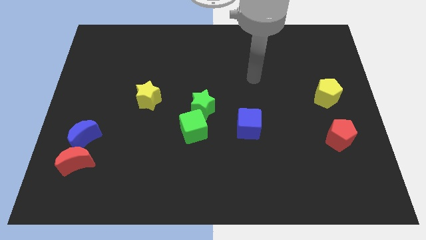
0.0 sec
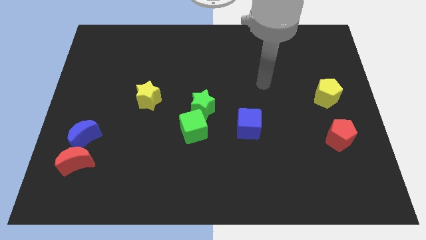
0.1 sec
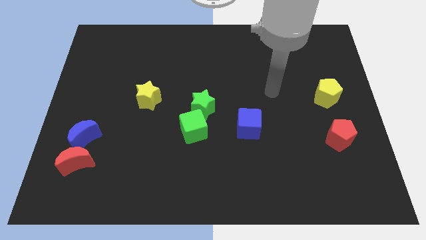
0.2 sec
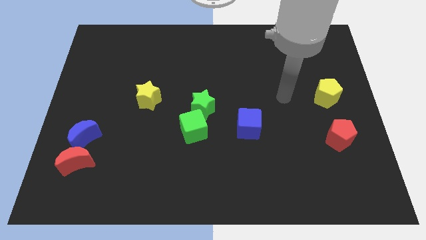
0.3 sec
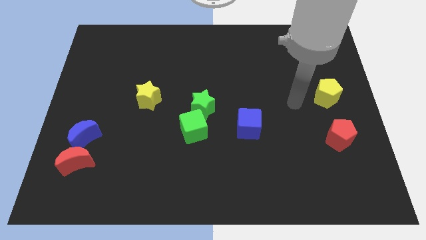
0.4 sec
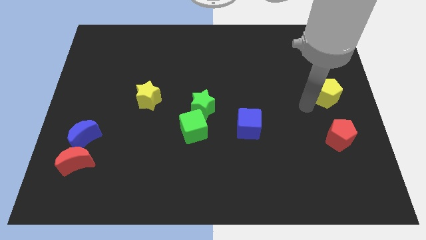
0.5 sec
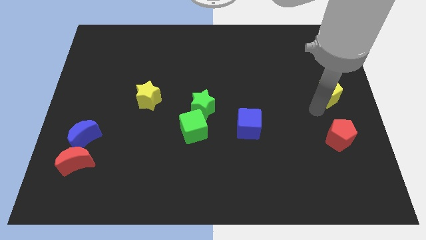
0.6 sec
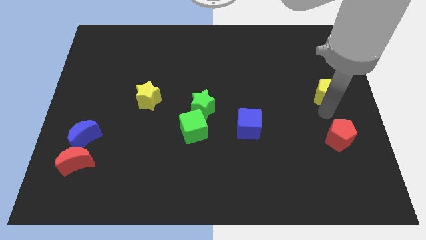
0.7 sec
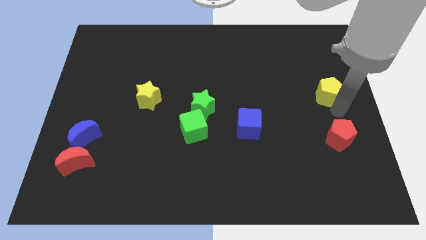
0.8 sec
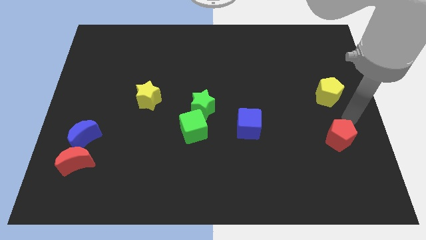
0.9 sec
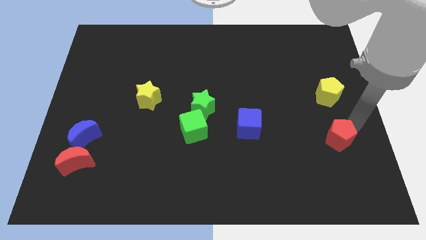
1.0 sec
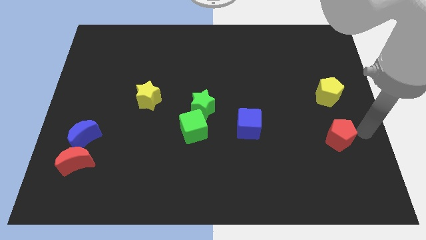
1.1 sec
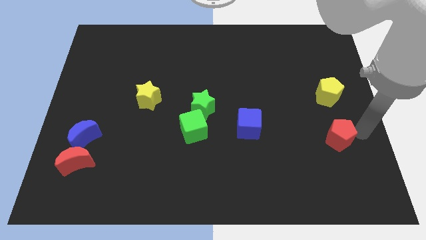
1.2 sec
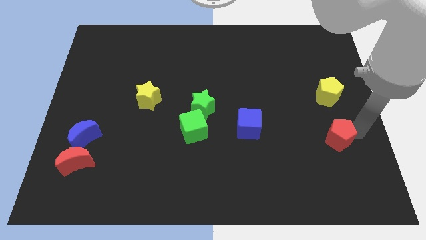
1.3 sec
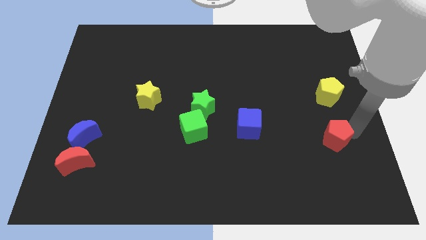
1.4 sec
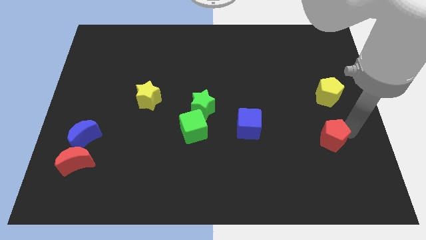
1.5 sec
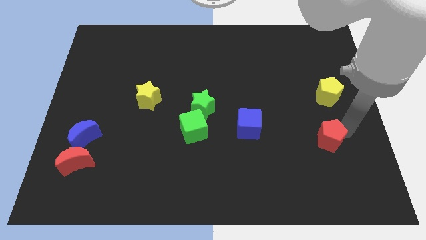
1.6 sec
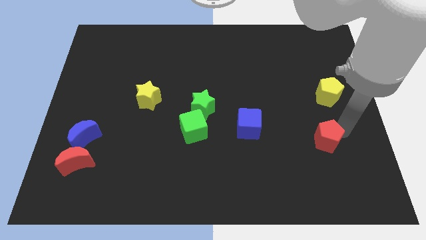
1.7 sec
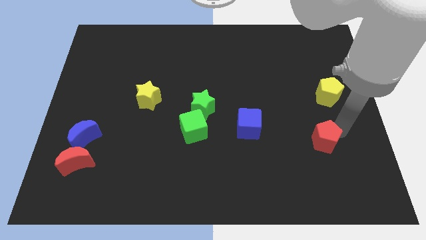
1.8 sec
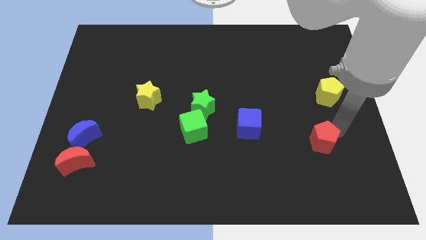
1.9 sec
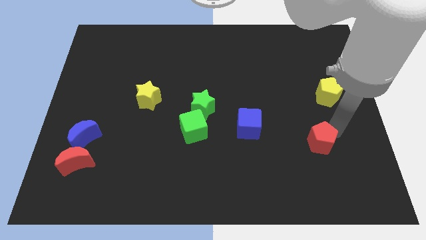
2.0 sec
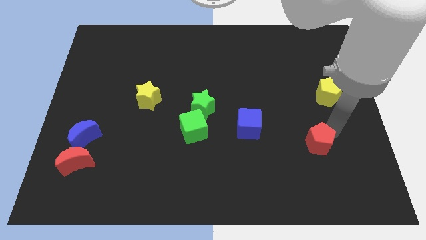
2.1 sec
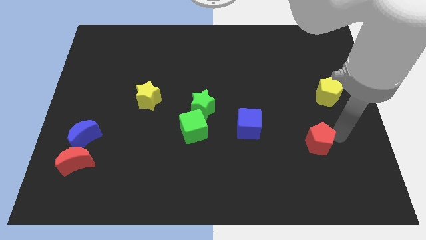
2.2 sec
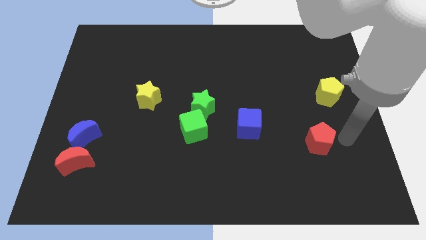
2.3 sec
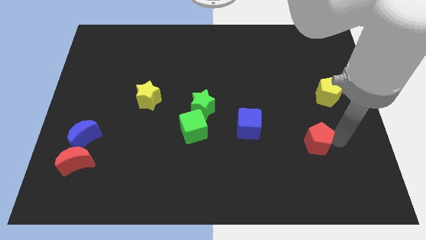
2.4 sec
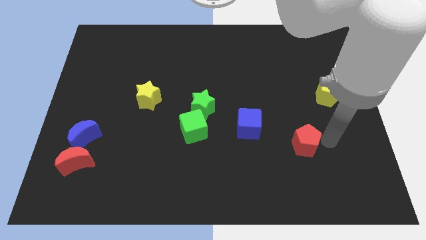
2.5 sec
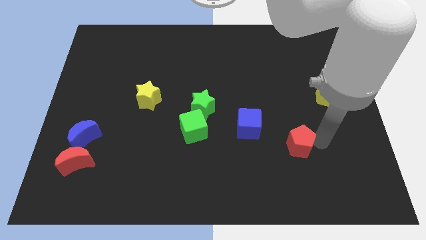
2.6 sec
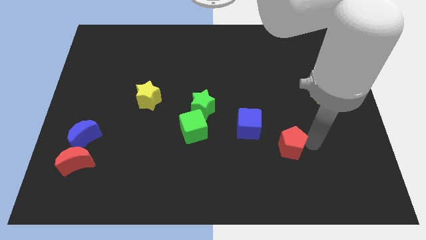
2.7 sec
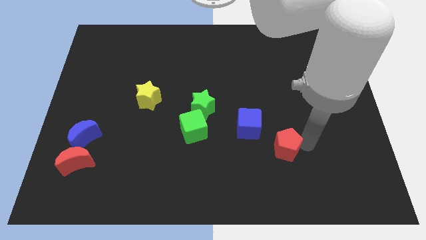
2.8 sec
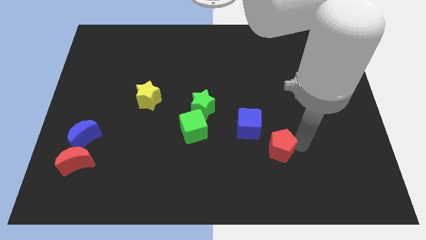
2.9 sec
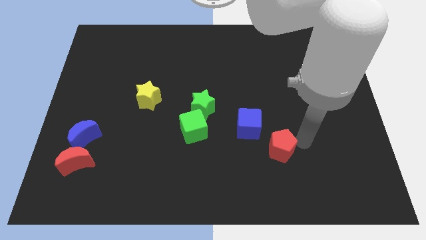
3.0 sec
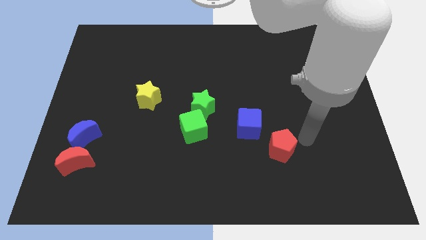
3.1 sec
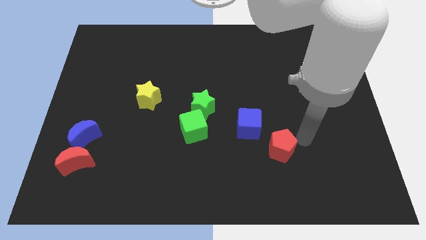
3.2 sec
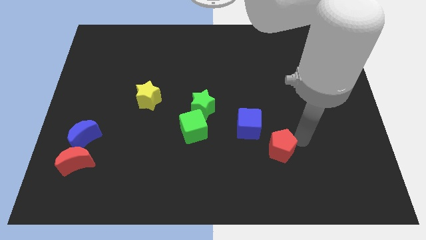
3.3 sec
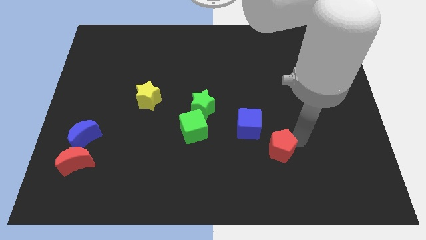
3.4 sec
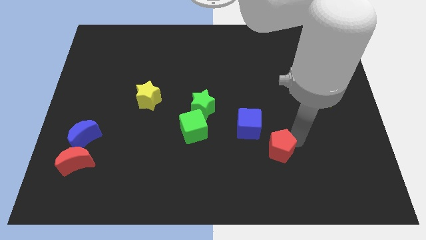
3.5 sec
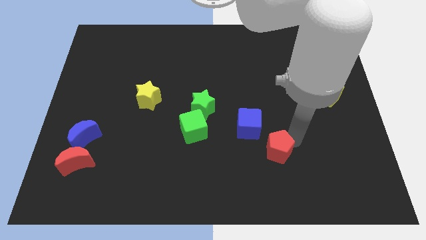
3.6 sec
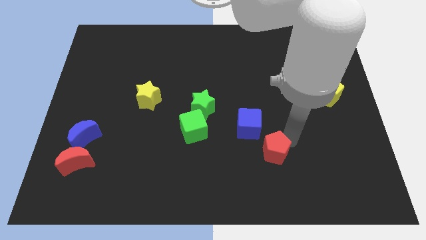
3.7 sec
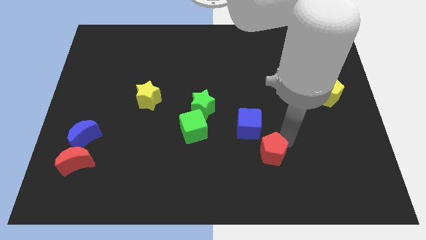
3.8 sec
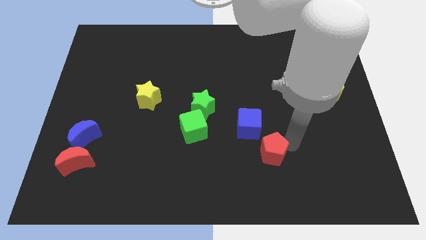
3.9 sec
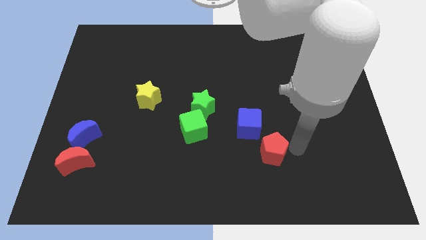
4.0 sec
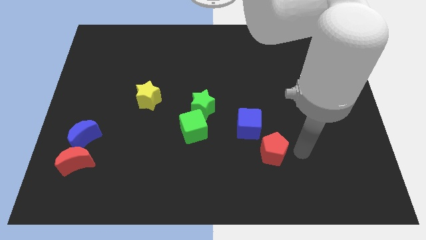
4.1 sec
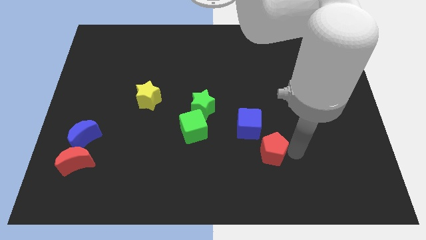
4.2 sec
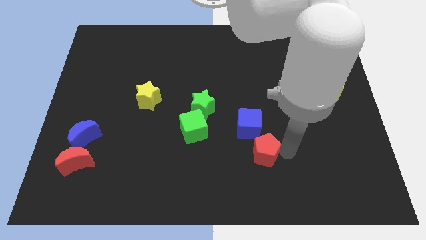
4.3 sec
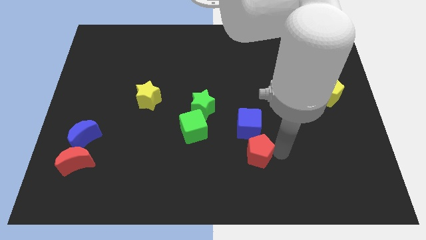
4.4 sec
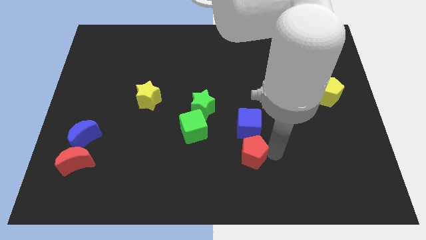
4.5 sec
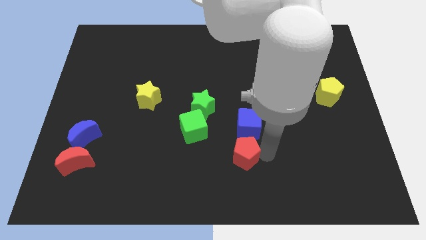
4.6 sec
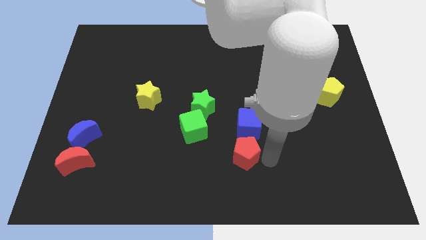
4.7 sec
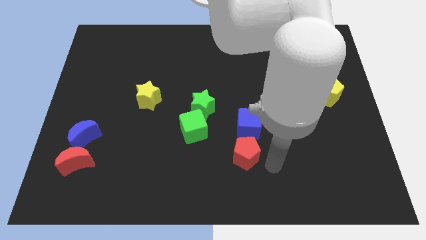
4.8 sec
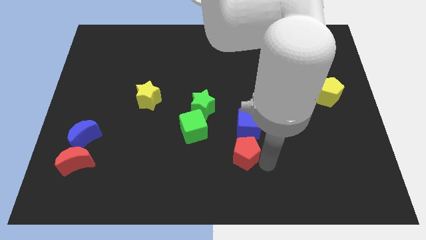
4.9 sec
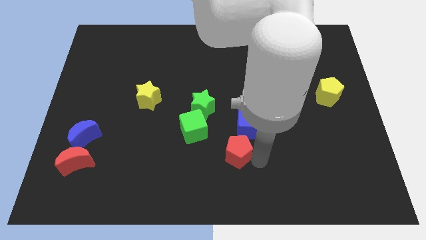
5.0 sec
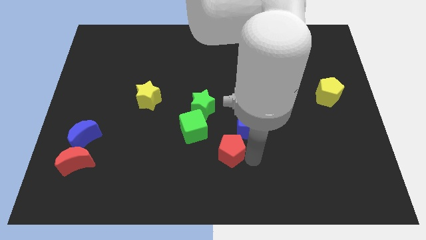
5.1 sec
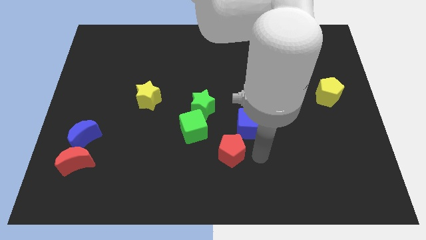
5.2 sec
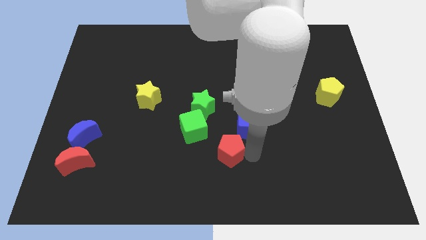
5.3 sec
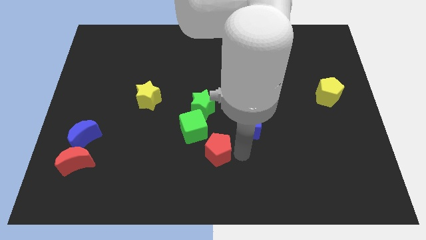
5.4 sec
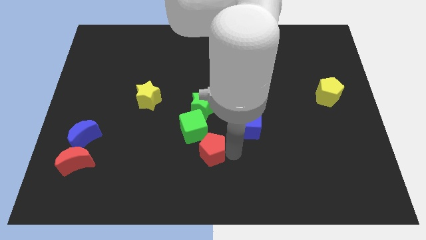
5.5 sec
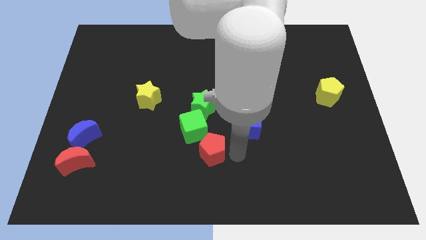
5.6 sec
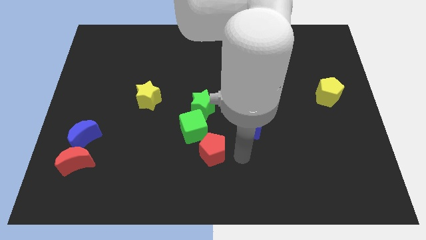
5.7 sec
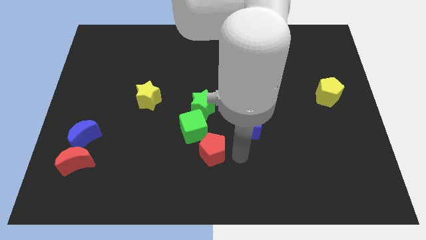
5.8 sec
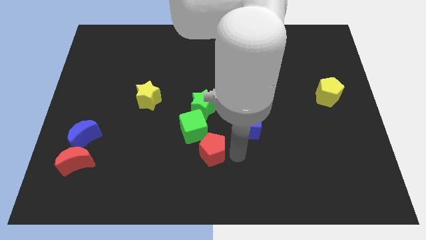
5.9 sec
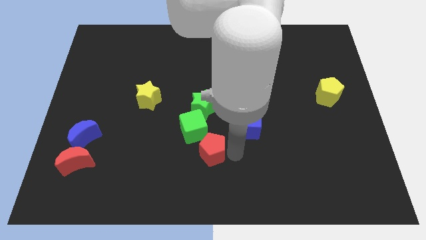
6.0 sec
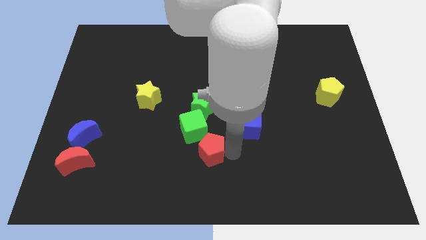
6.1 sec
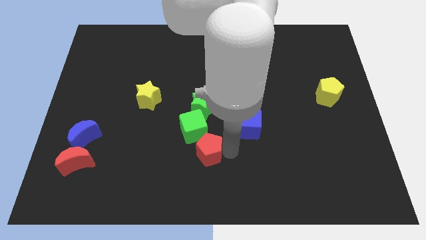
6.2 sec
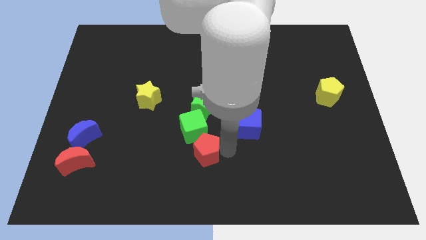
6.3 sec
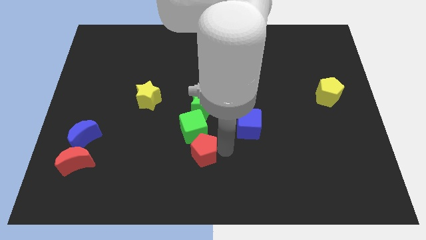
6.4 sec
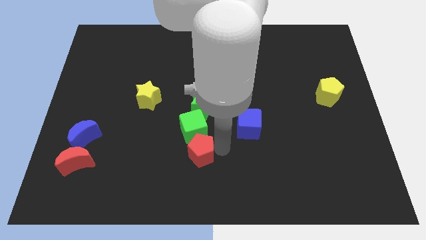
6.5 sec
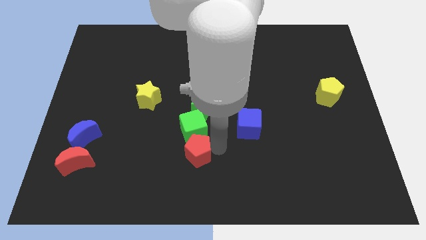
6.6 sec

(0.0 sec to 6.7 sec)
move the red pentagon to the bottom left of the green cube

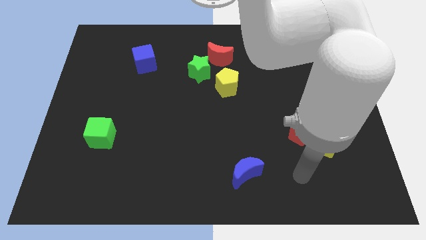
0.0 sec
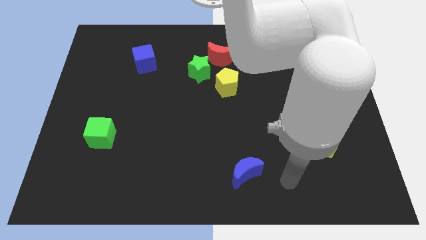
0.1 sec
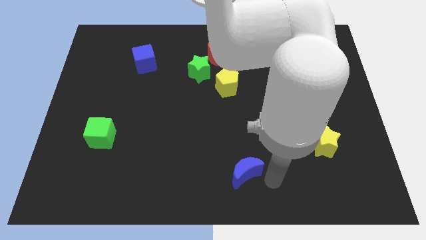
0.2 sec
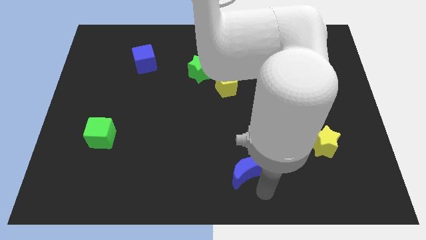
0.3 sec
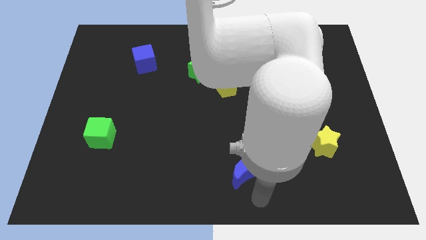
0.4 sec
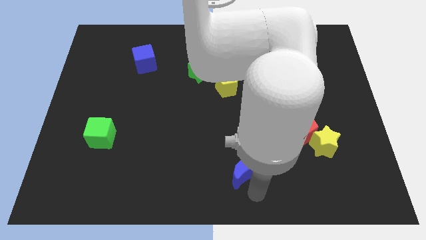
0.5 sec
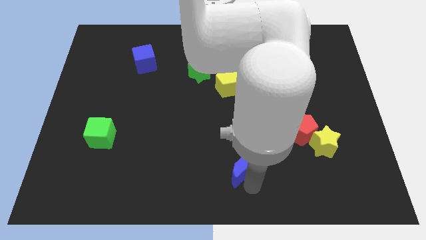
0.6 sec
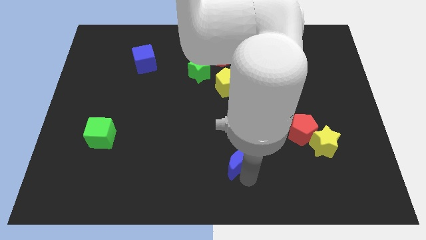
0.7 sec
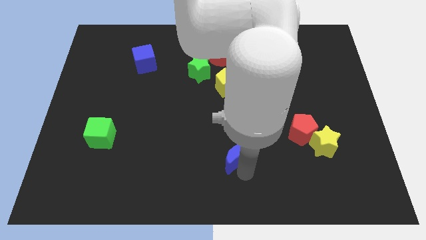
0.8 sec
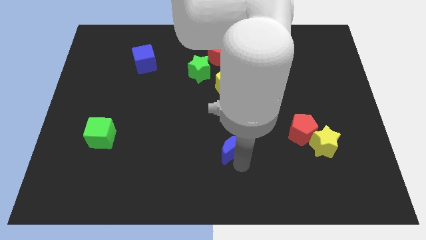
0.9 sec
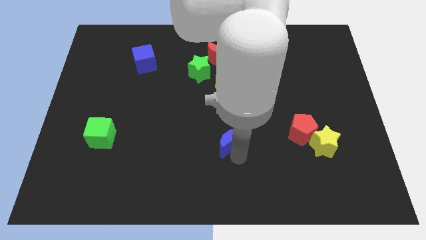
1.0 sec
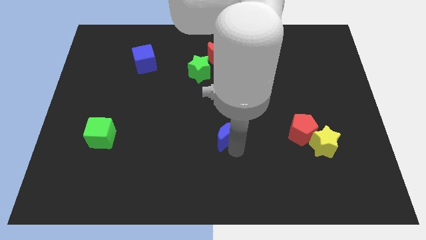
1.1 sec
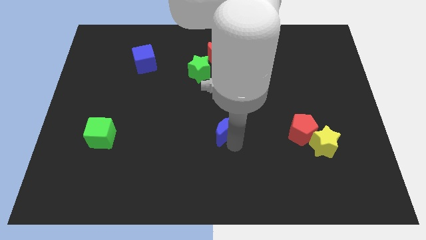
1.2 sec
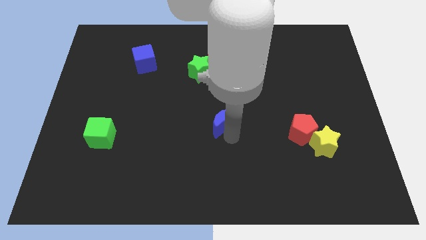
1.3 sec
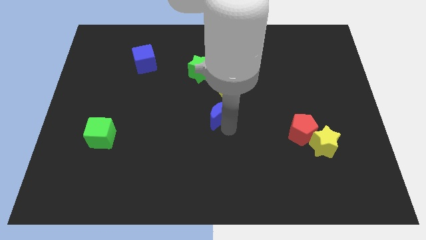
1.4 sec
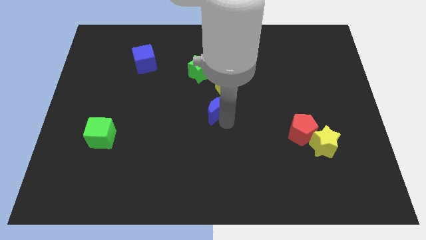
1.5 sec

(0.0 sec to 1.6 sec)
push the blue moon to the bottom left side of the yellow pentagon
